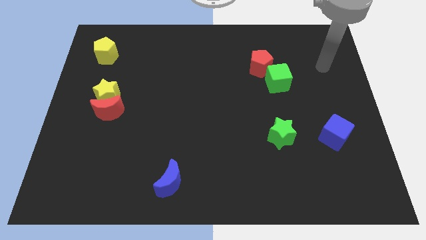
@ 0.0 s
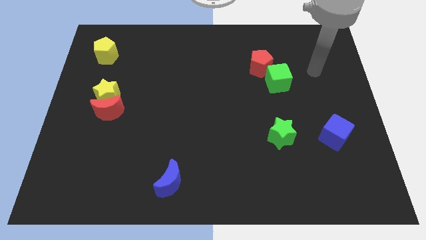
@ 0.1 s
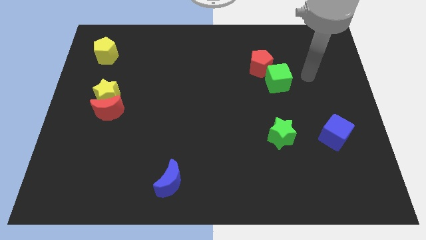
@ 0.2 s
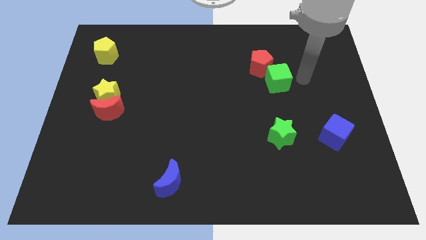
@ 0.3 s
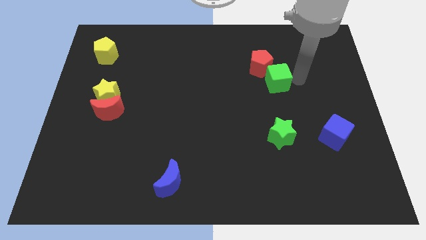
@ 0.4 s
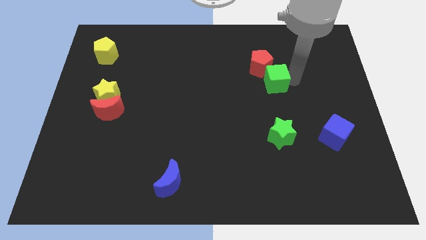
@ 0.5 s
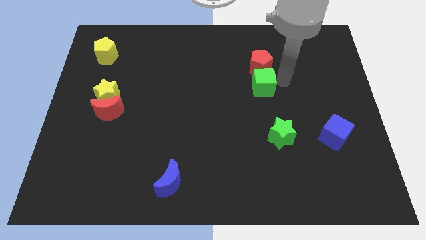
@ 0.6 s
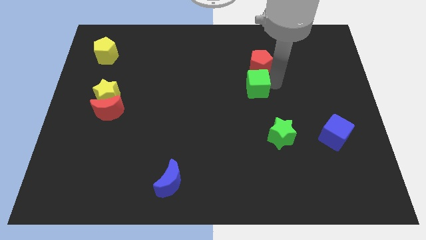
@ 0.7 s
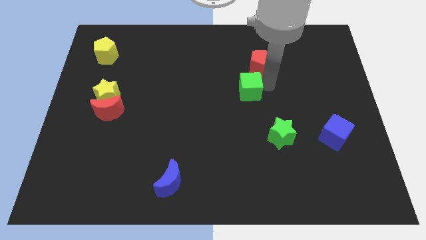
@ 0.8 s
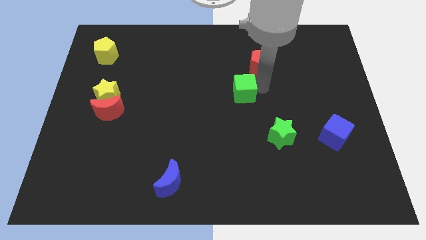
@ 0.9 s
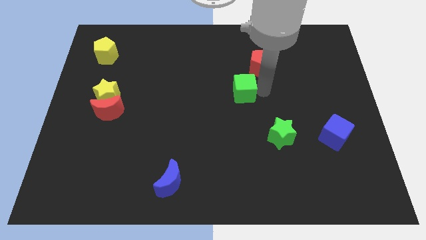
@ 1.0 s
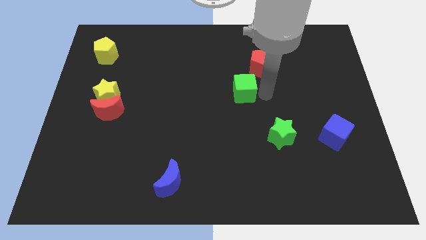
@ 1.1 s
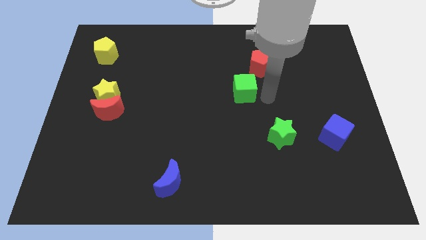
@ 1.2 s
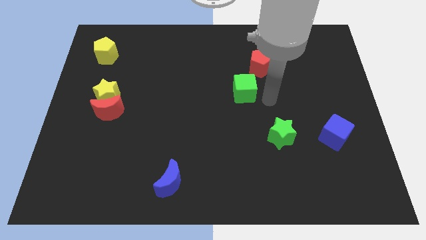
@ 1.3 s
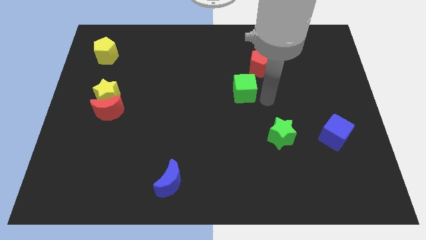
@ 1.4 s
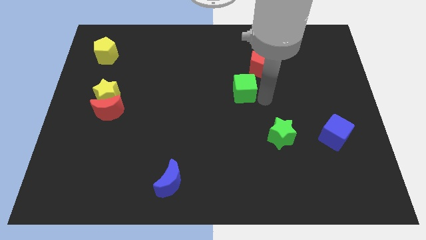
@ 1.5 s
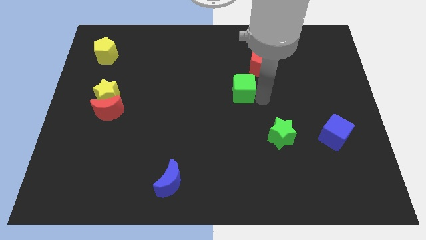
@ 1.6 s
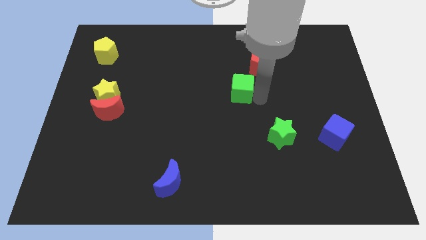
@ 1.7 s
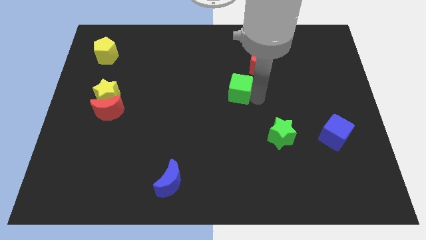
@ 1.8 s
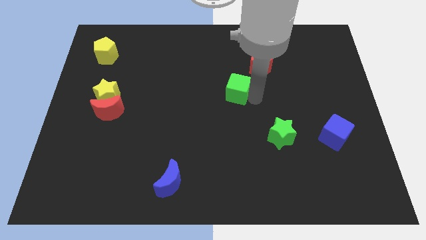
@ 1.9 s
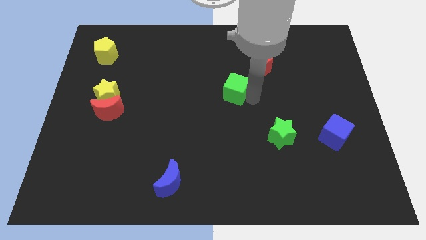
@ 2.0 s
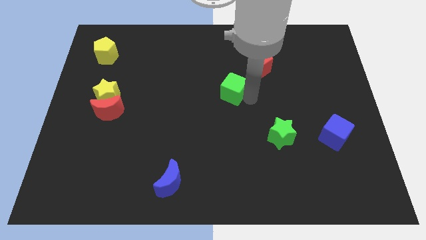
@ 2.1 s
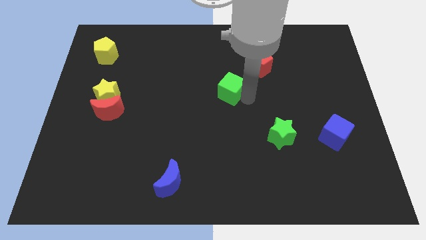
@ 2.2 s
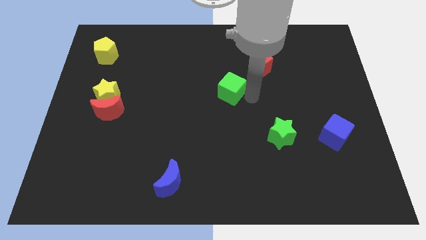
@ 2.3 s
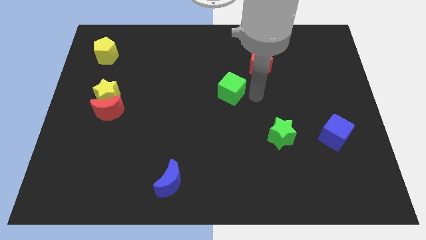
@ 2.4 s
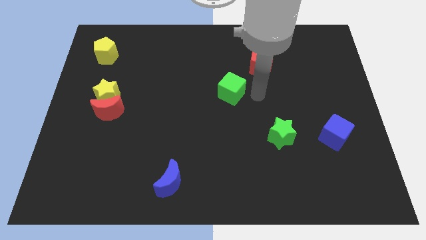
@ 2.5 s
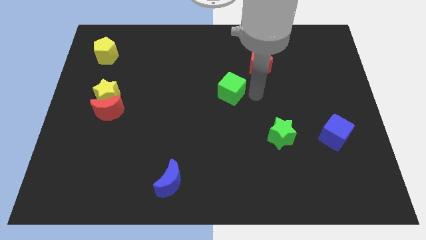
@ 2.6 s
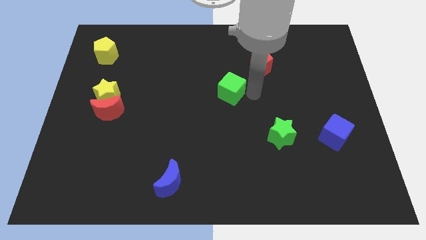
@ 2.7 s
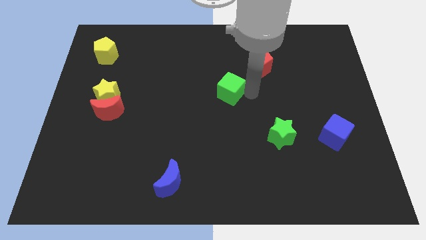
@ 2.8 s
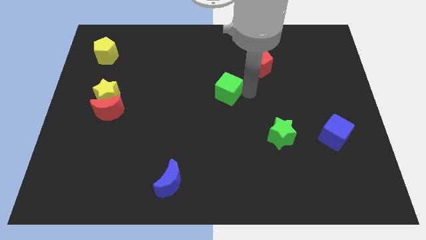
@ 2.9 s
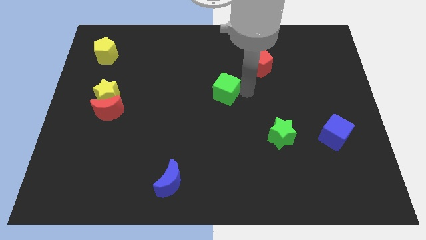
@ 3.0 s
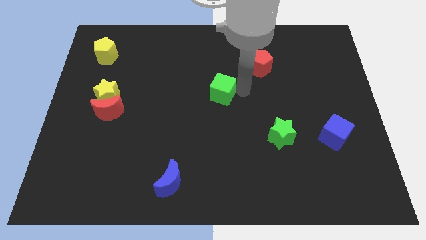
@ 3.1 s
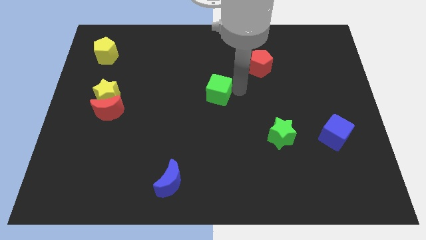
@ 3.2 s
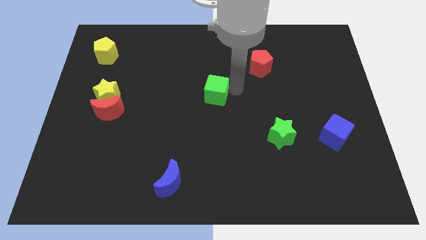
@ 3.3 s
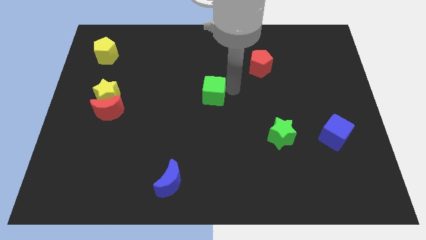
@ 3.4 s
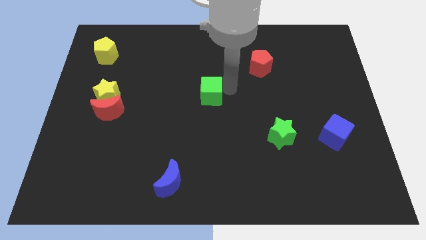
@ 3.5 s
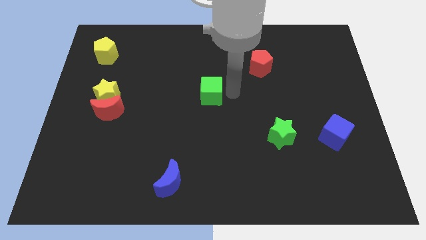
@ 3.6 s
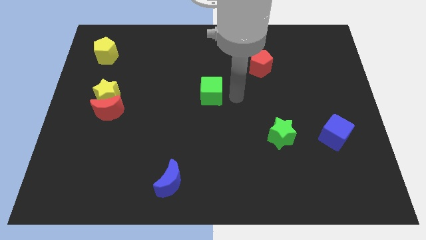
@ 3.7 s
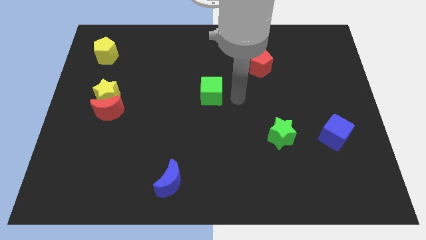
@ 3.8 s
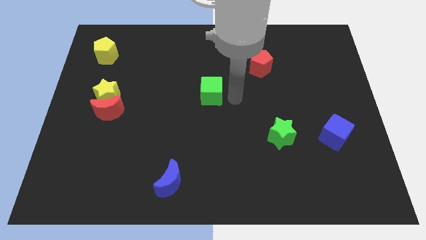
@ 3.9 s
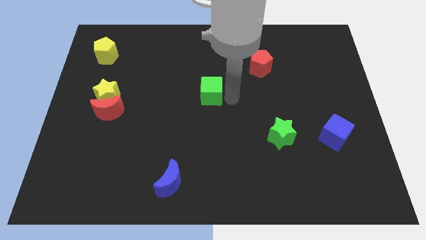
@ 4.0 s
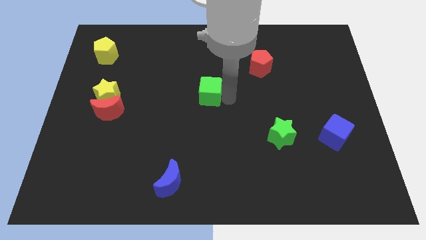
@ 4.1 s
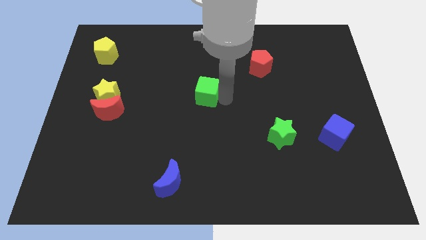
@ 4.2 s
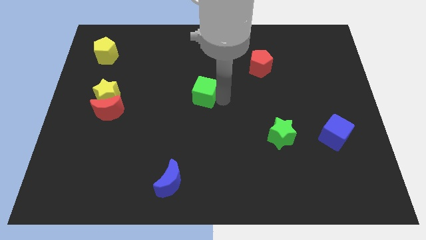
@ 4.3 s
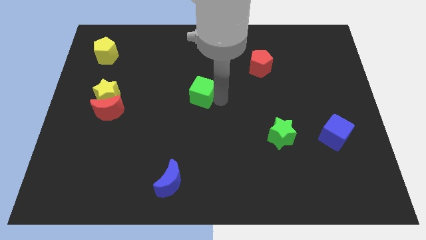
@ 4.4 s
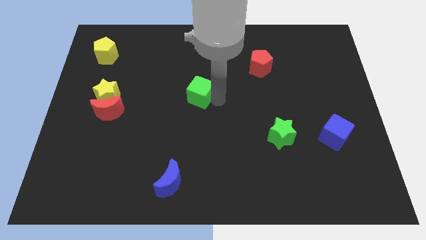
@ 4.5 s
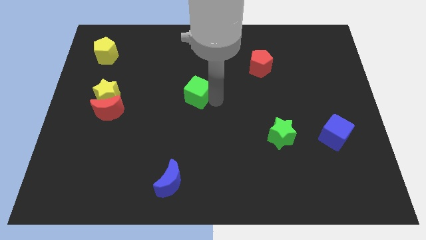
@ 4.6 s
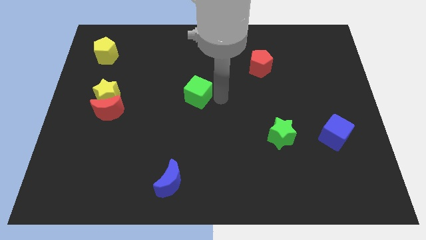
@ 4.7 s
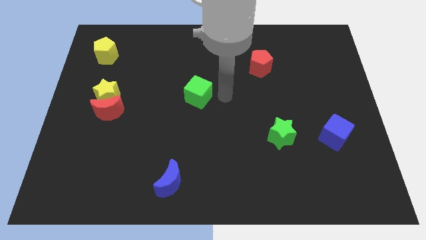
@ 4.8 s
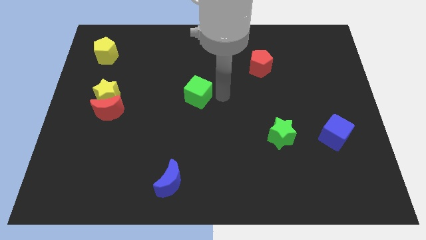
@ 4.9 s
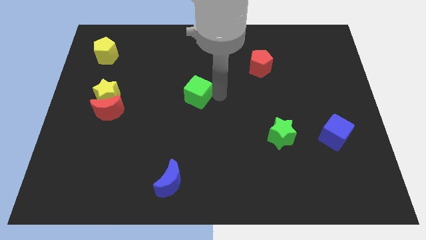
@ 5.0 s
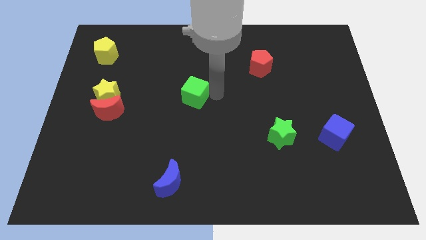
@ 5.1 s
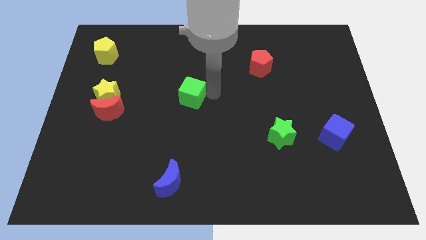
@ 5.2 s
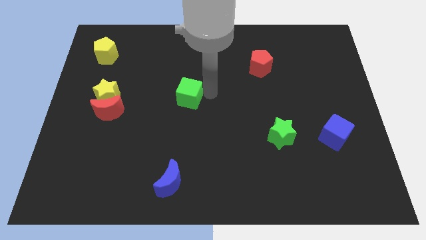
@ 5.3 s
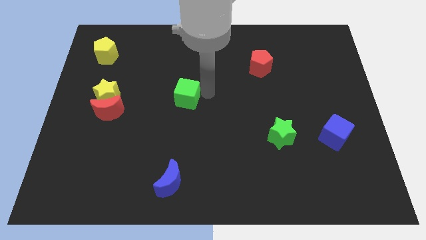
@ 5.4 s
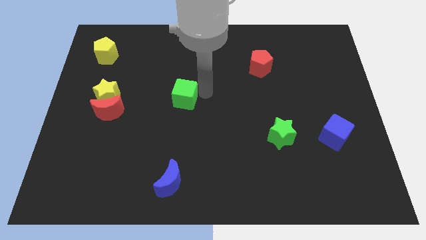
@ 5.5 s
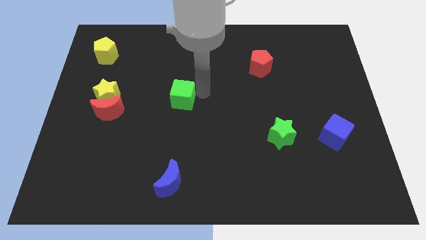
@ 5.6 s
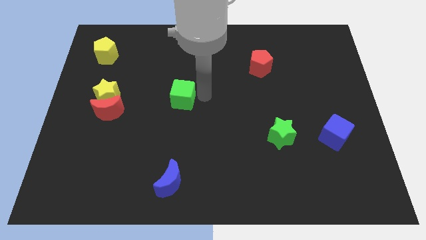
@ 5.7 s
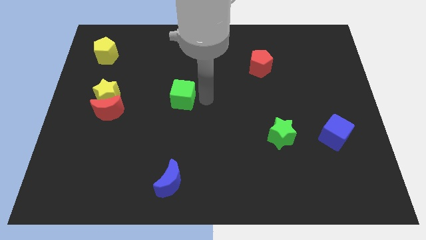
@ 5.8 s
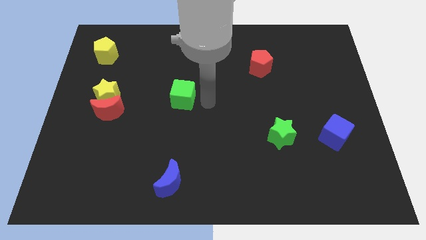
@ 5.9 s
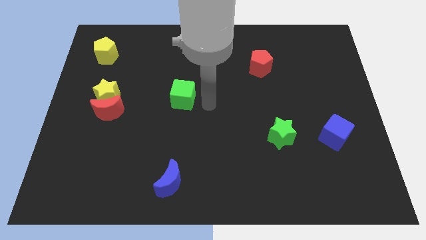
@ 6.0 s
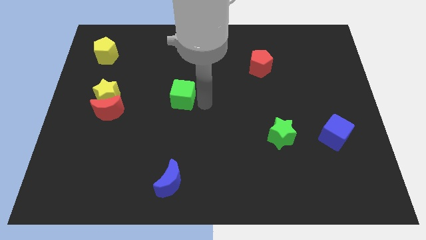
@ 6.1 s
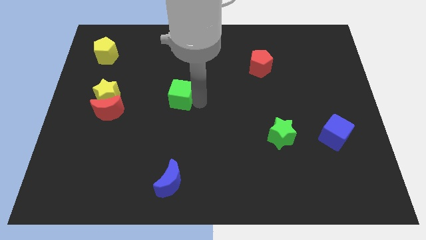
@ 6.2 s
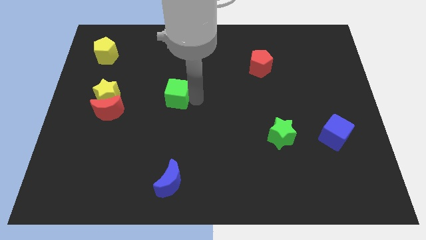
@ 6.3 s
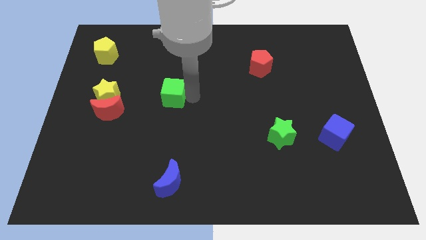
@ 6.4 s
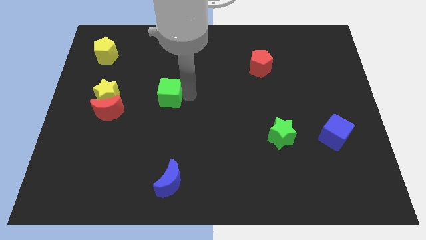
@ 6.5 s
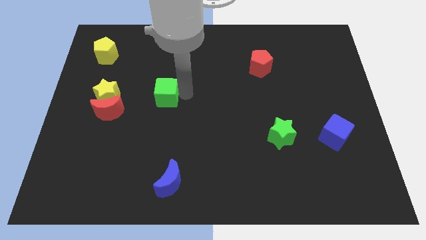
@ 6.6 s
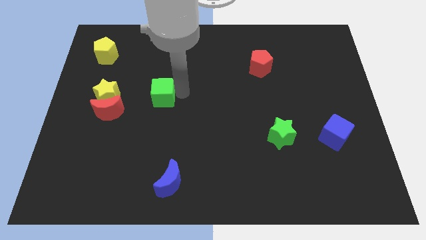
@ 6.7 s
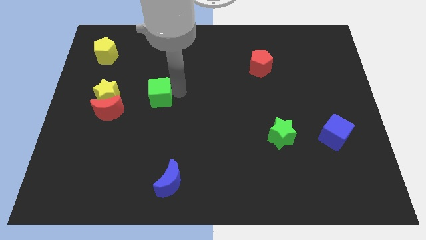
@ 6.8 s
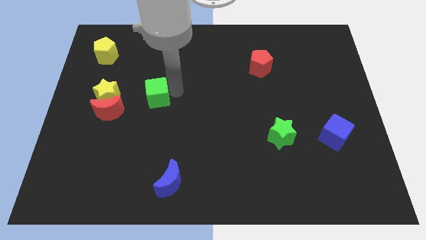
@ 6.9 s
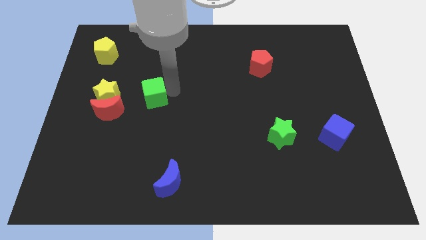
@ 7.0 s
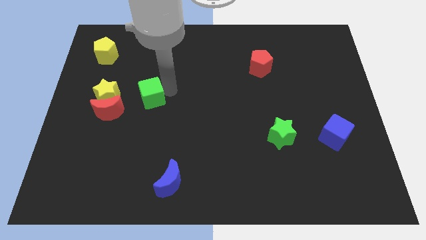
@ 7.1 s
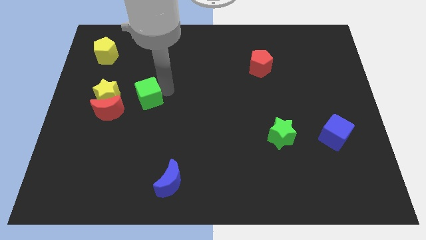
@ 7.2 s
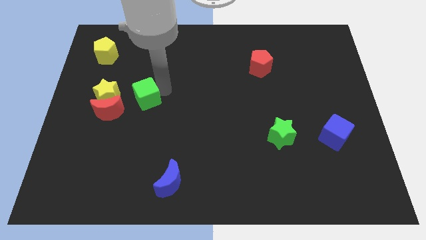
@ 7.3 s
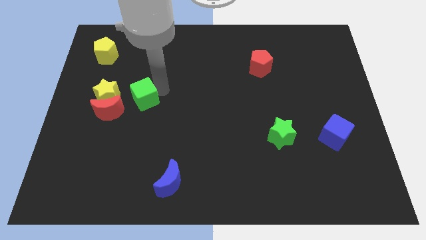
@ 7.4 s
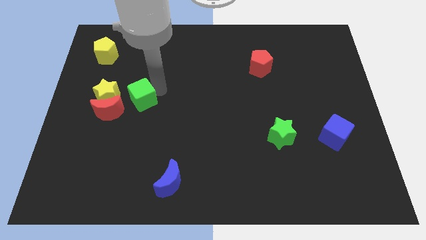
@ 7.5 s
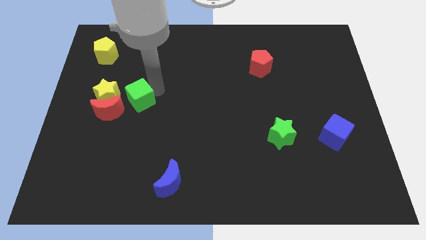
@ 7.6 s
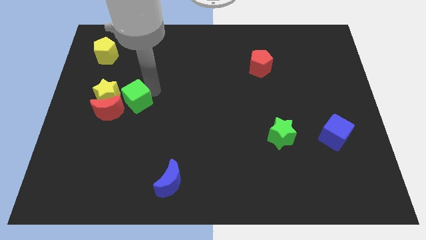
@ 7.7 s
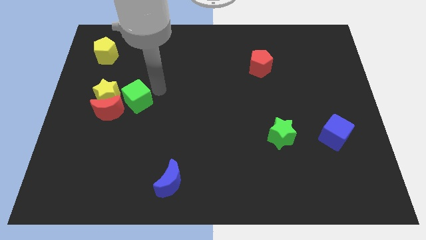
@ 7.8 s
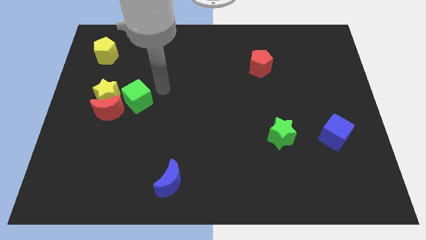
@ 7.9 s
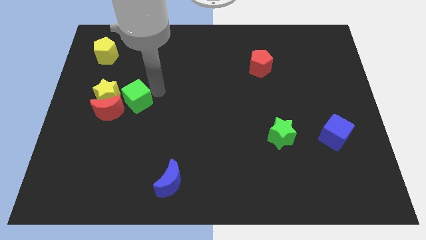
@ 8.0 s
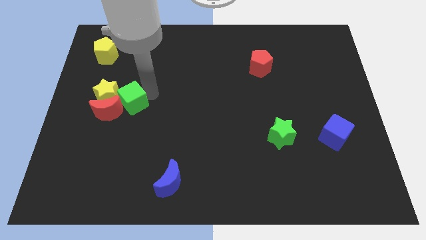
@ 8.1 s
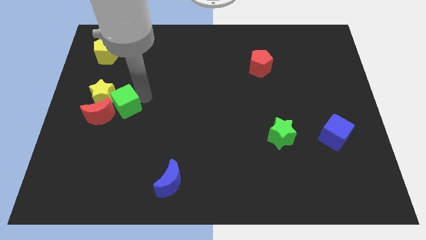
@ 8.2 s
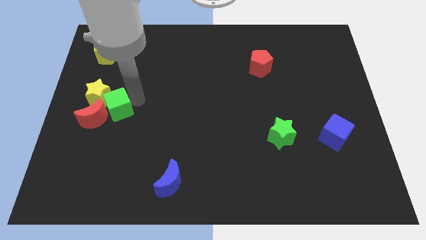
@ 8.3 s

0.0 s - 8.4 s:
put the green cube towards the red moon
